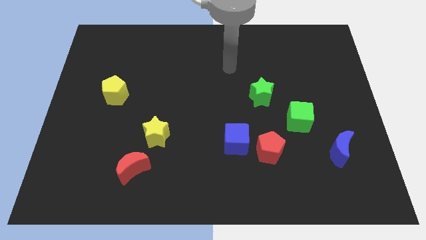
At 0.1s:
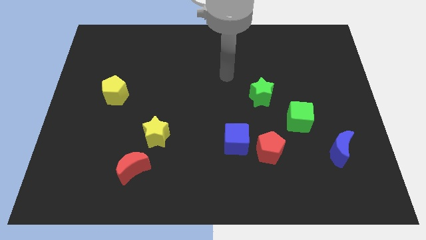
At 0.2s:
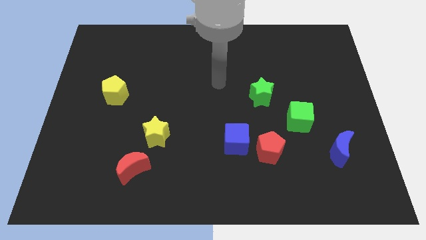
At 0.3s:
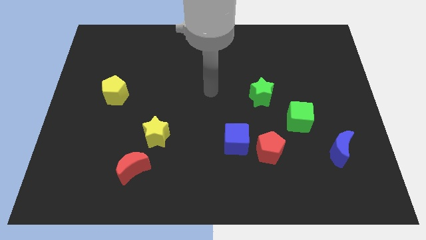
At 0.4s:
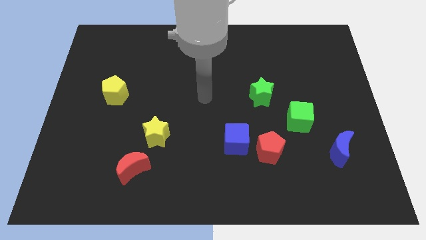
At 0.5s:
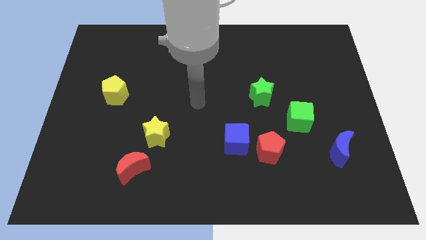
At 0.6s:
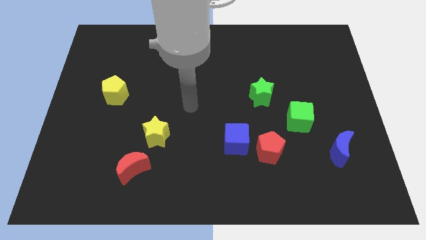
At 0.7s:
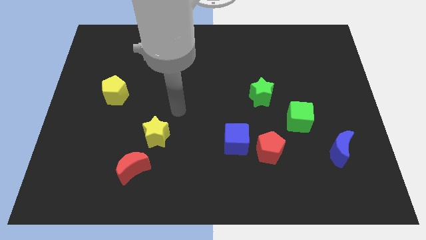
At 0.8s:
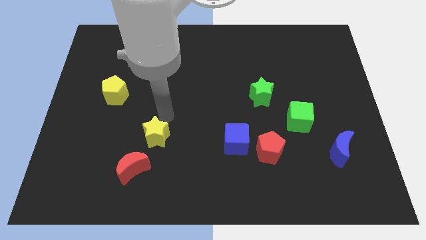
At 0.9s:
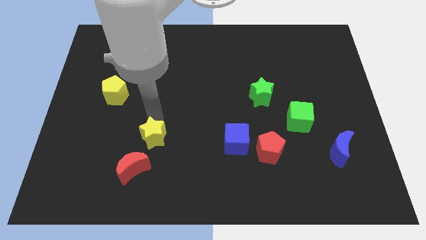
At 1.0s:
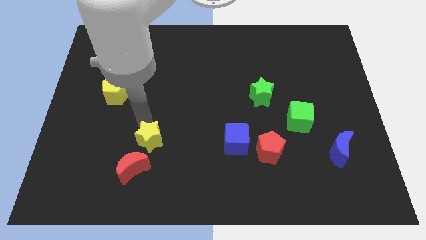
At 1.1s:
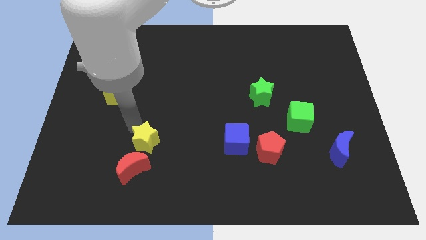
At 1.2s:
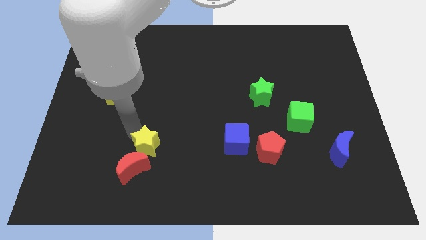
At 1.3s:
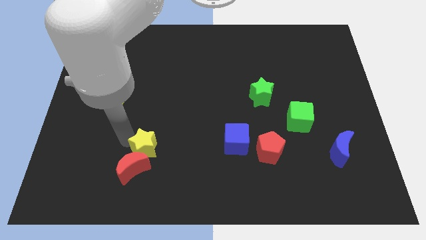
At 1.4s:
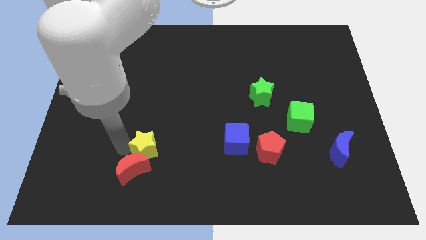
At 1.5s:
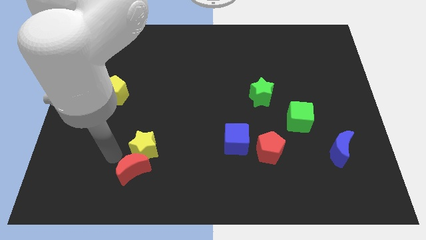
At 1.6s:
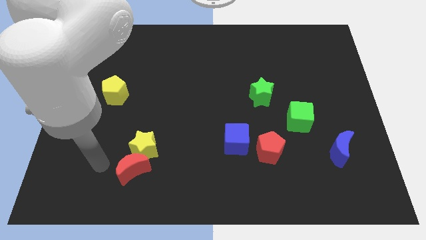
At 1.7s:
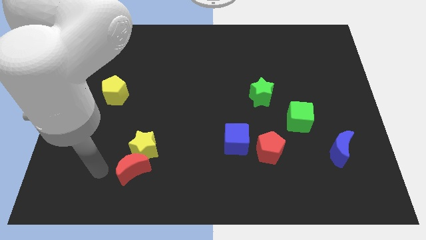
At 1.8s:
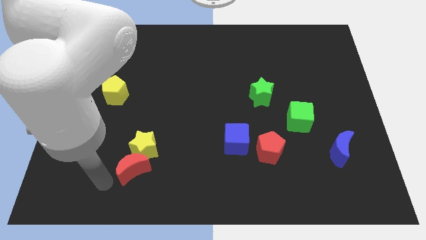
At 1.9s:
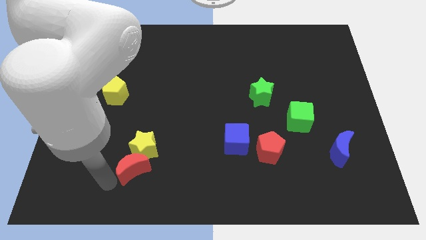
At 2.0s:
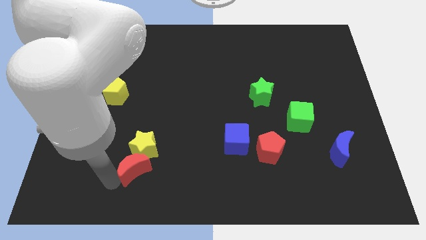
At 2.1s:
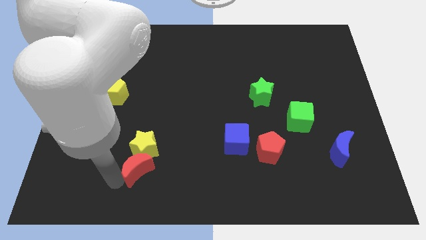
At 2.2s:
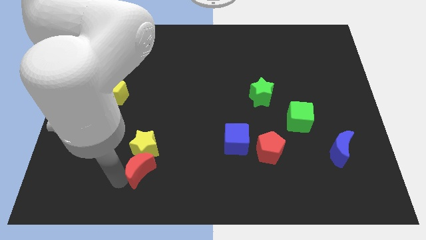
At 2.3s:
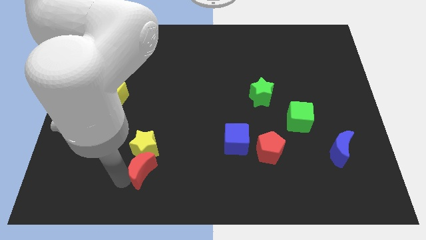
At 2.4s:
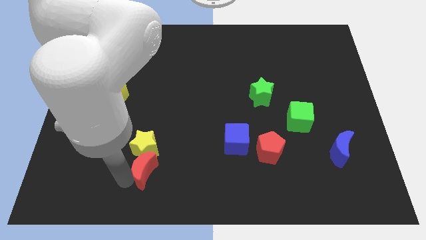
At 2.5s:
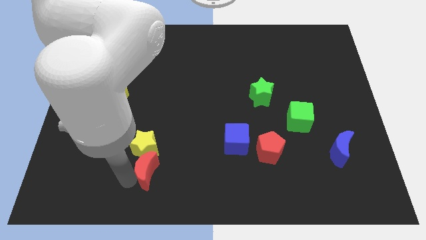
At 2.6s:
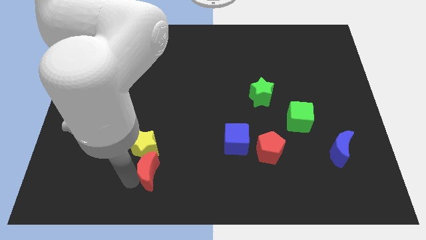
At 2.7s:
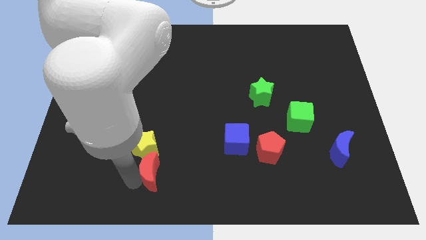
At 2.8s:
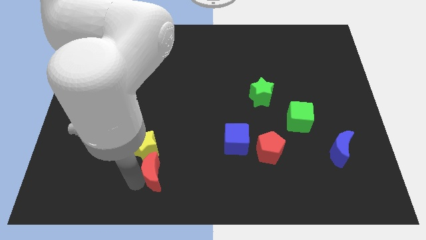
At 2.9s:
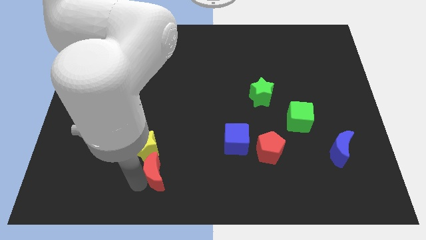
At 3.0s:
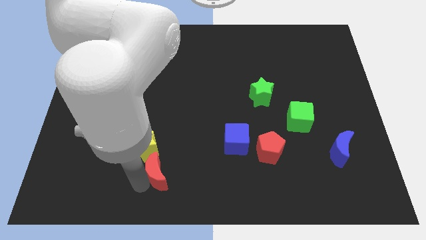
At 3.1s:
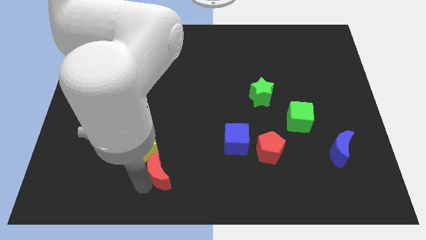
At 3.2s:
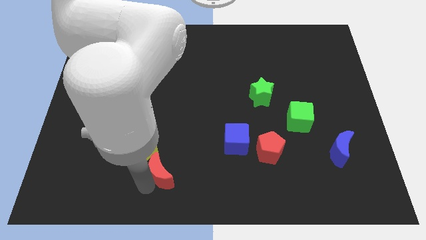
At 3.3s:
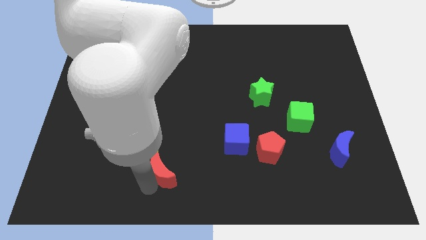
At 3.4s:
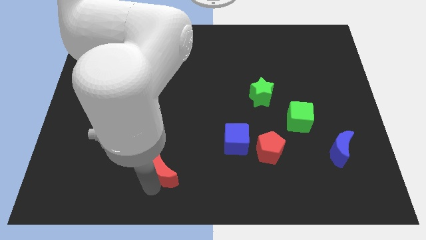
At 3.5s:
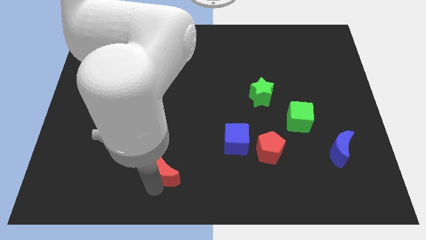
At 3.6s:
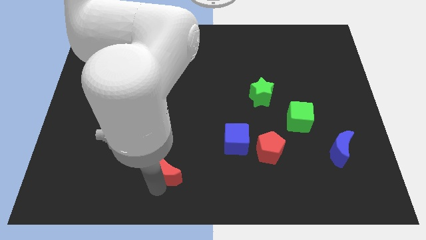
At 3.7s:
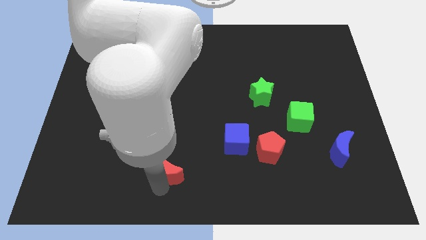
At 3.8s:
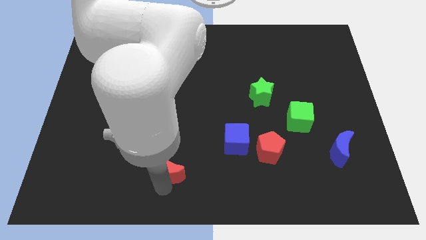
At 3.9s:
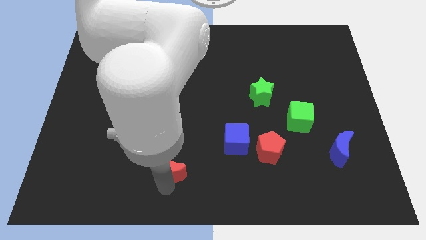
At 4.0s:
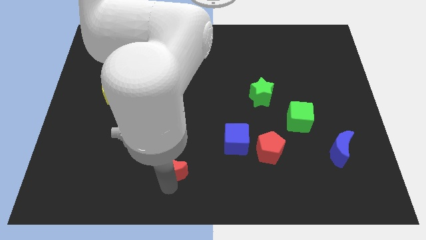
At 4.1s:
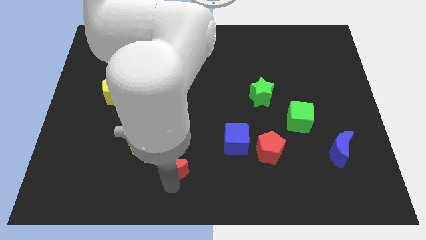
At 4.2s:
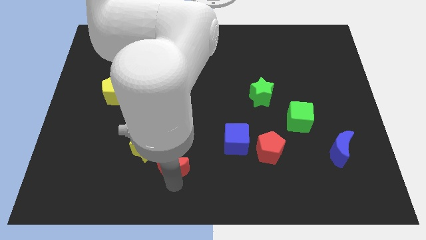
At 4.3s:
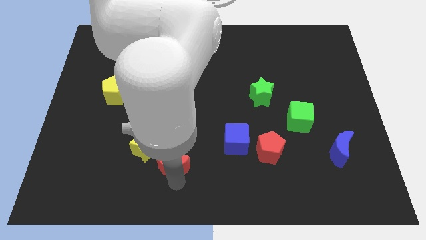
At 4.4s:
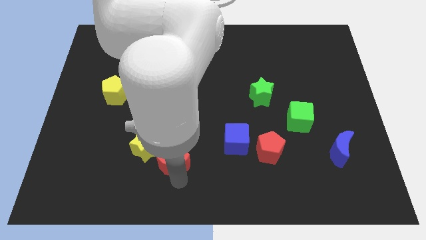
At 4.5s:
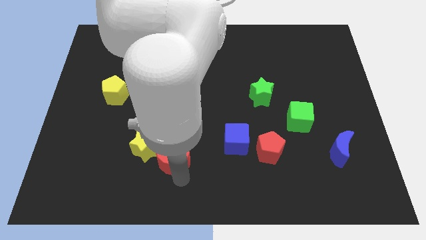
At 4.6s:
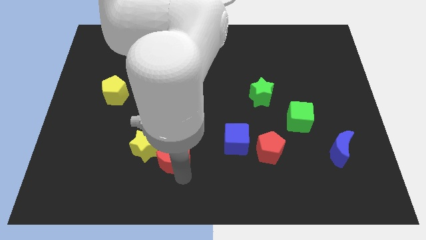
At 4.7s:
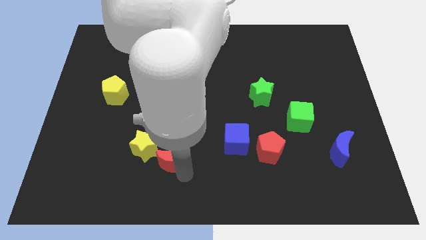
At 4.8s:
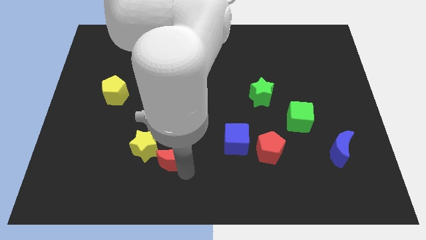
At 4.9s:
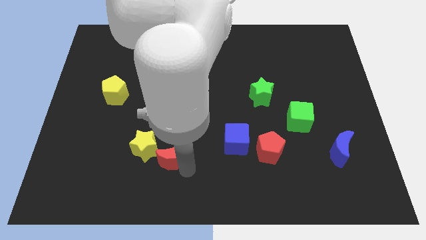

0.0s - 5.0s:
slide the red moon upwards and right somewhat

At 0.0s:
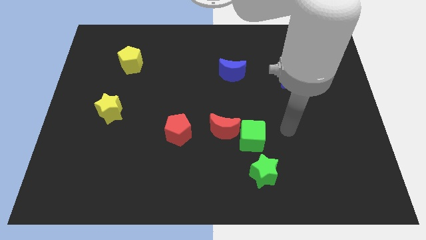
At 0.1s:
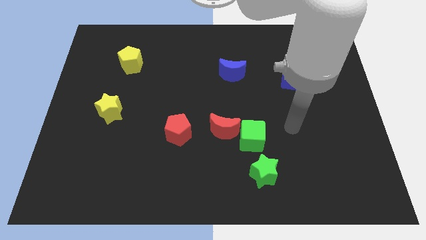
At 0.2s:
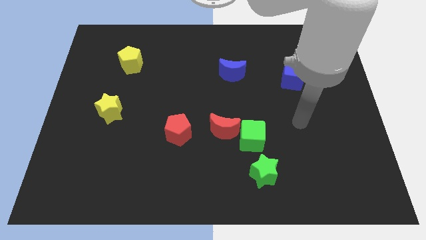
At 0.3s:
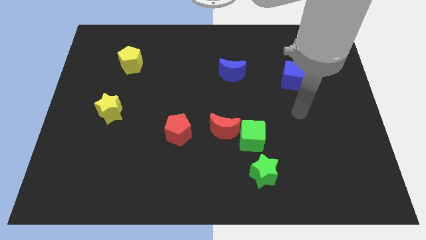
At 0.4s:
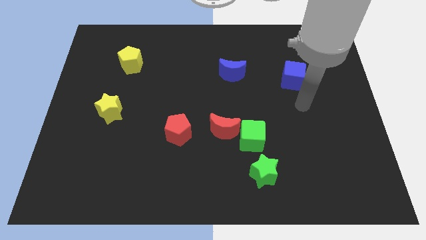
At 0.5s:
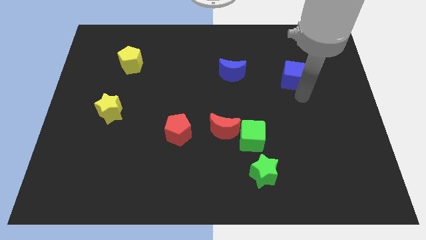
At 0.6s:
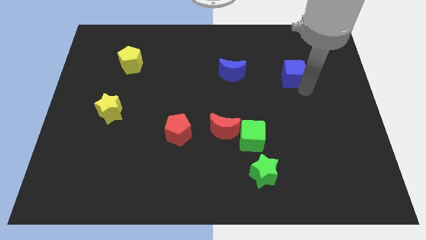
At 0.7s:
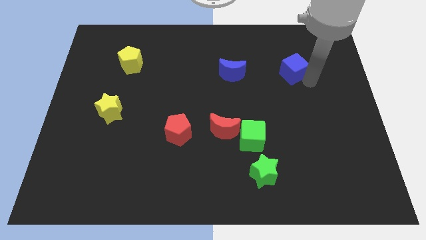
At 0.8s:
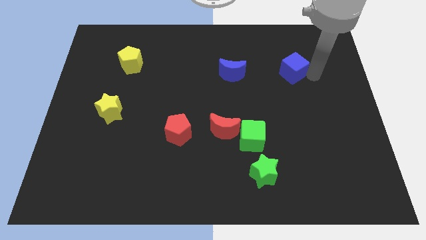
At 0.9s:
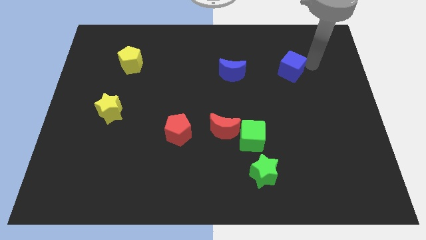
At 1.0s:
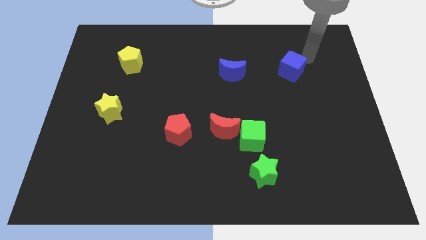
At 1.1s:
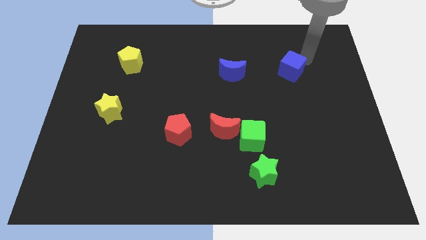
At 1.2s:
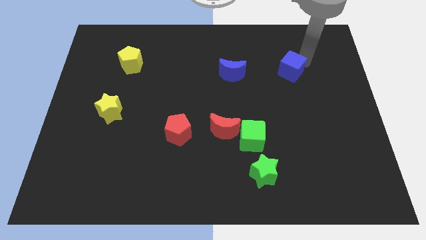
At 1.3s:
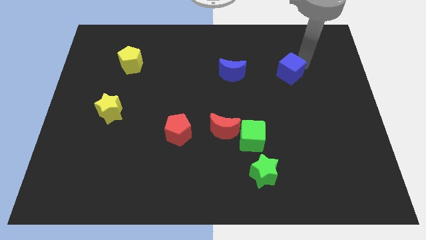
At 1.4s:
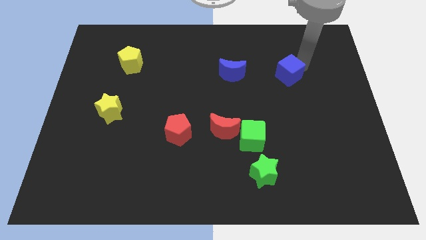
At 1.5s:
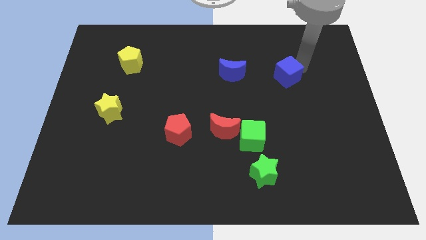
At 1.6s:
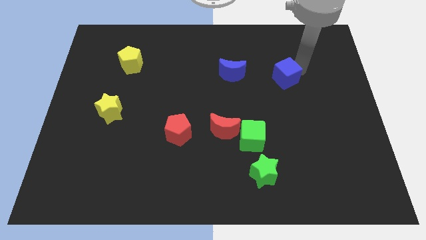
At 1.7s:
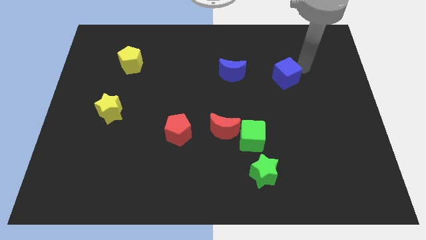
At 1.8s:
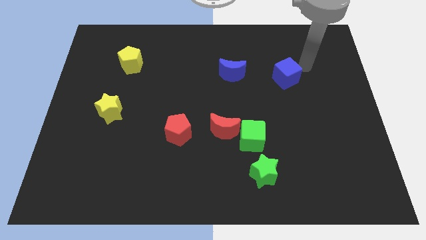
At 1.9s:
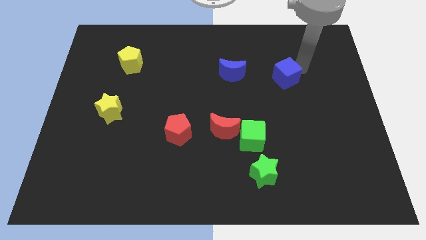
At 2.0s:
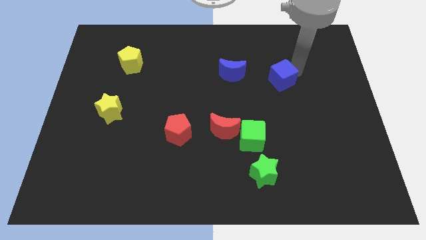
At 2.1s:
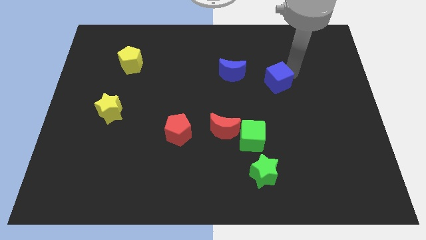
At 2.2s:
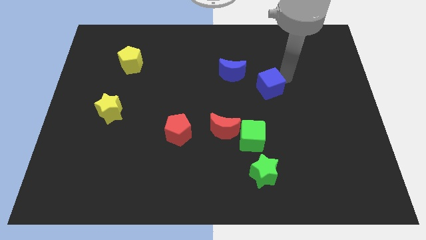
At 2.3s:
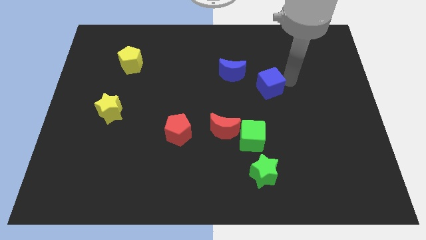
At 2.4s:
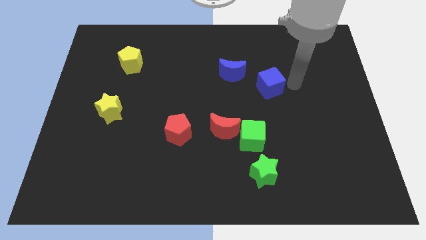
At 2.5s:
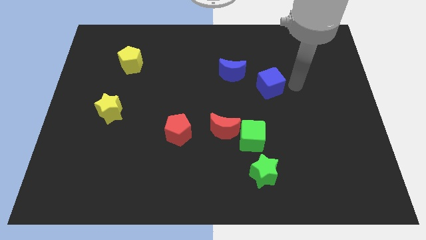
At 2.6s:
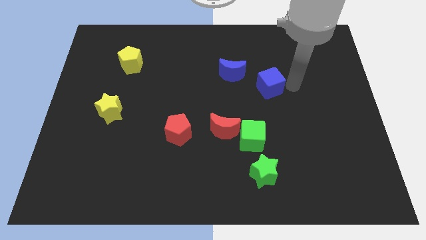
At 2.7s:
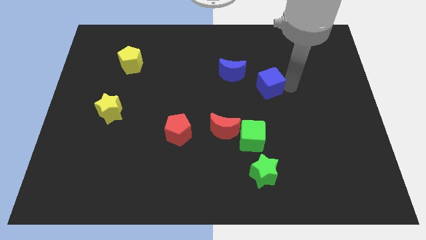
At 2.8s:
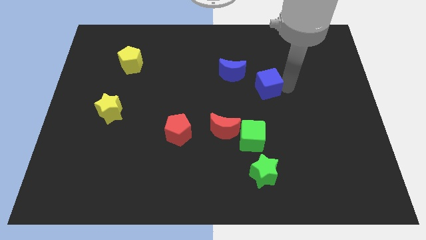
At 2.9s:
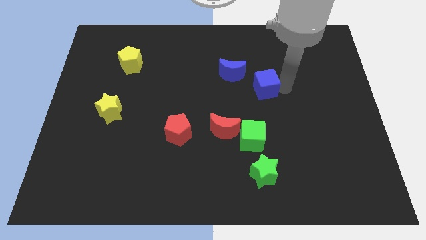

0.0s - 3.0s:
slightly push the blue cube left

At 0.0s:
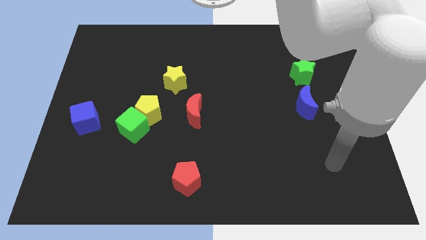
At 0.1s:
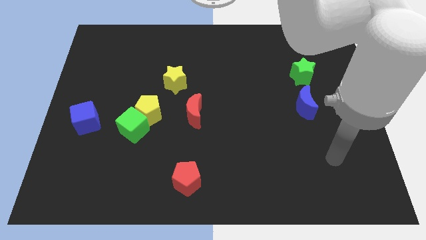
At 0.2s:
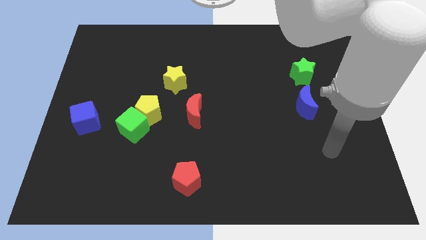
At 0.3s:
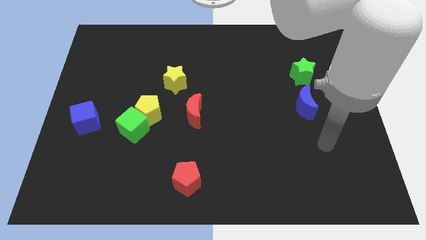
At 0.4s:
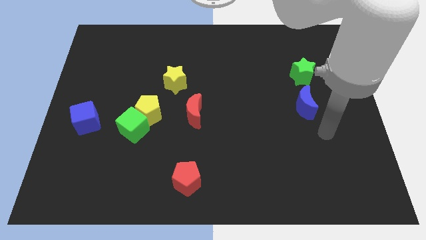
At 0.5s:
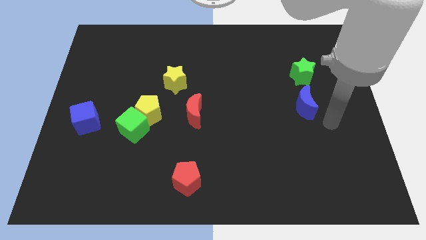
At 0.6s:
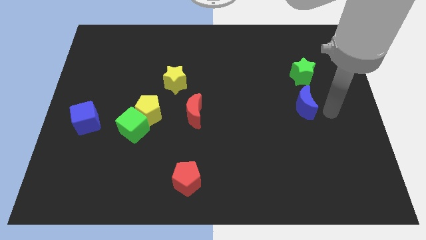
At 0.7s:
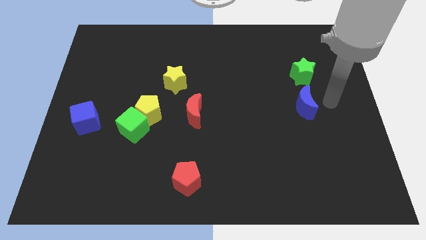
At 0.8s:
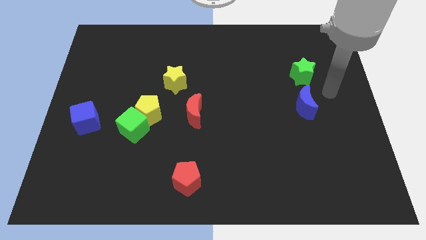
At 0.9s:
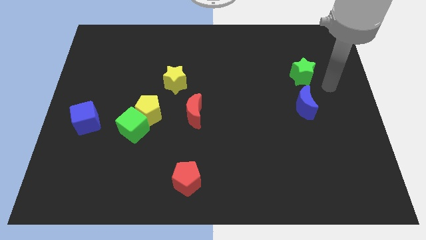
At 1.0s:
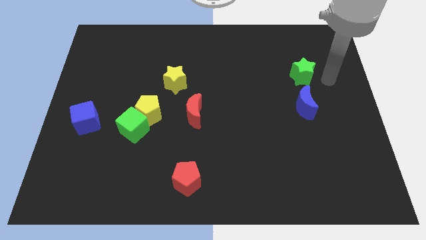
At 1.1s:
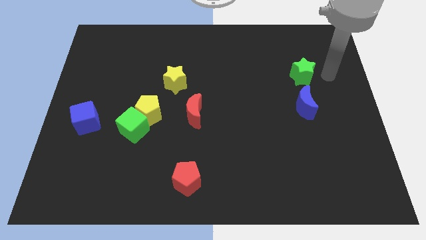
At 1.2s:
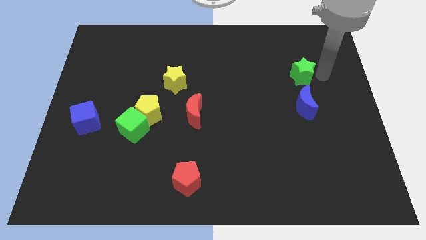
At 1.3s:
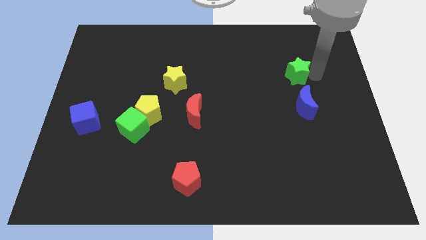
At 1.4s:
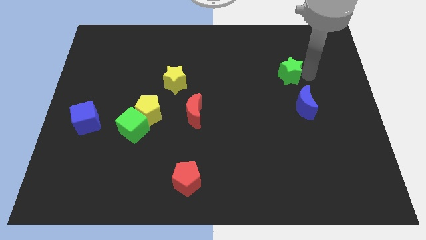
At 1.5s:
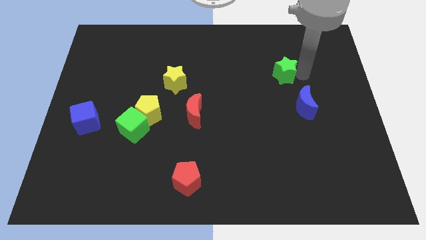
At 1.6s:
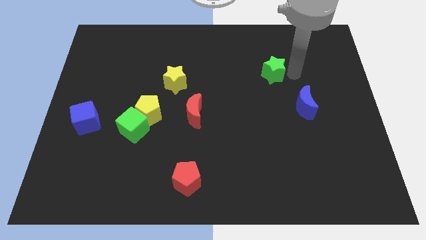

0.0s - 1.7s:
slightly slide the green star left
